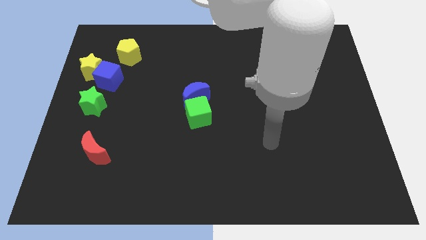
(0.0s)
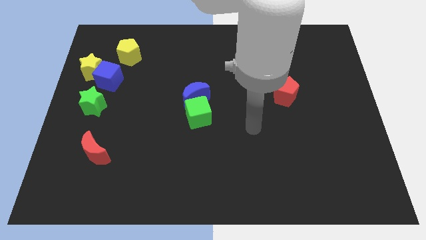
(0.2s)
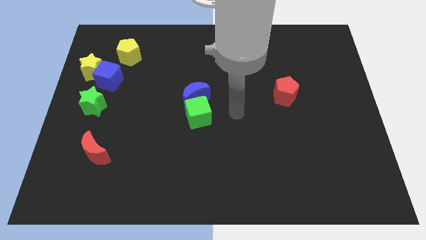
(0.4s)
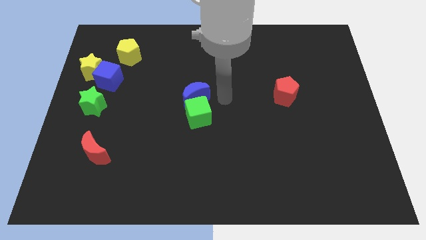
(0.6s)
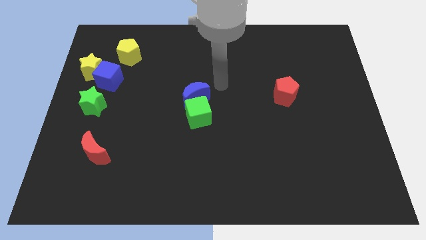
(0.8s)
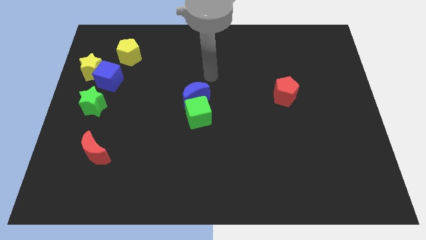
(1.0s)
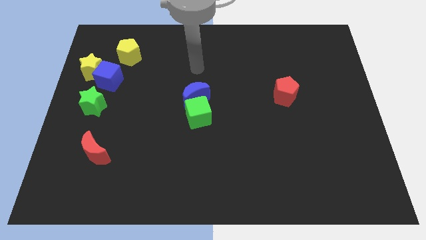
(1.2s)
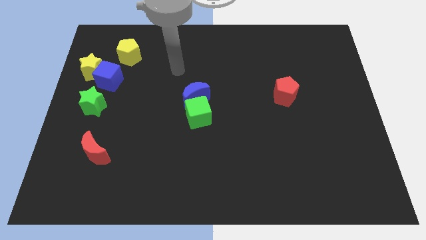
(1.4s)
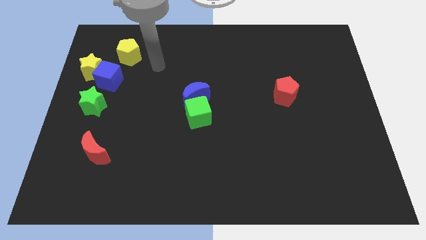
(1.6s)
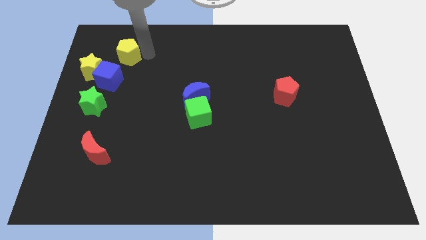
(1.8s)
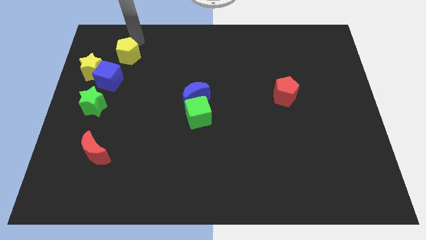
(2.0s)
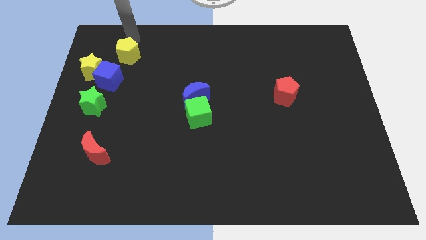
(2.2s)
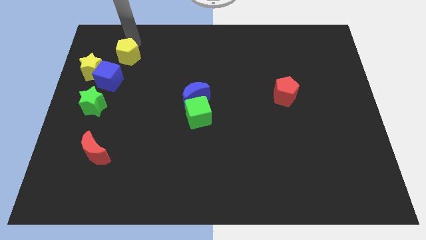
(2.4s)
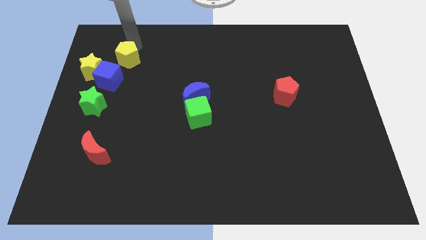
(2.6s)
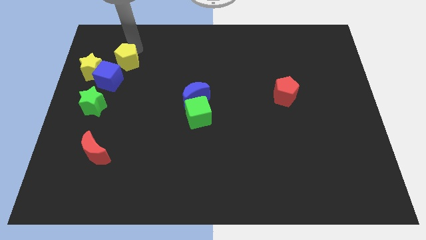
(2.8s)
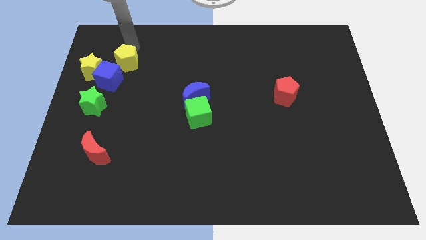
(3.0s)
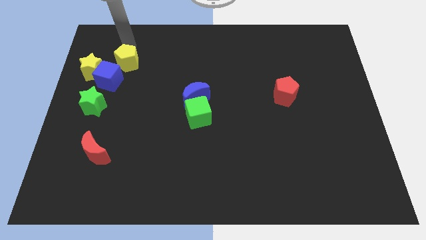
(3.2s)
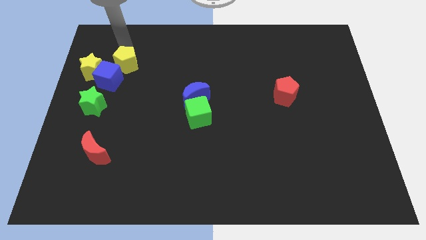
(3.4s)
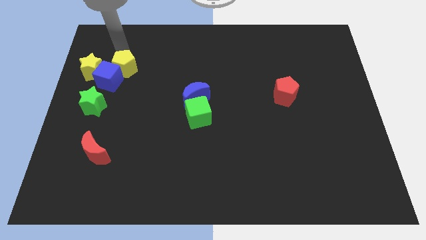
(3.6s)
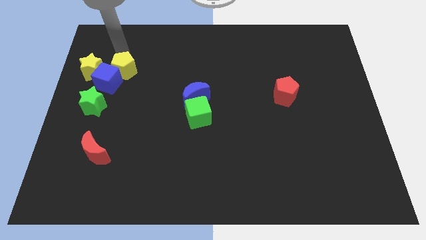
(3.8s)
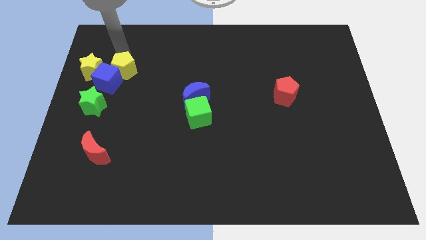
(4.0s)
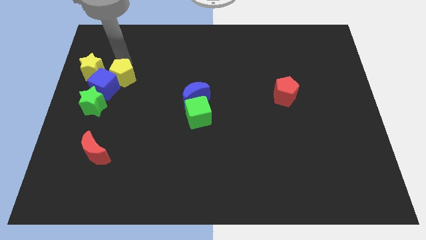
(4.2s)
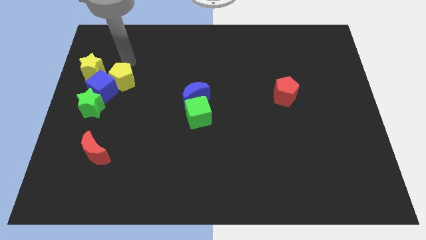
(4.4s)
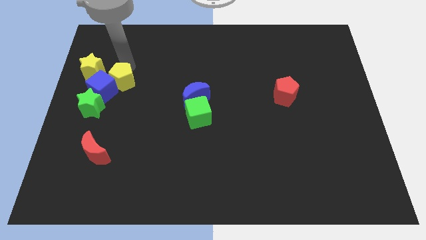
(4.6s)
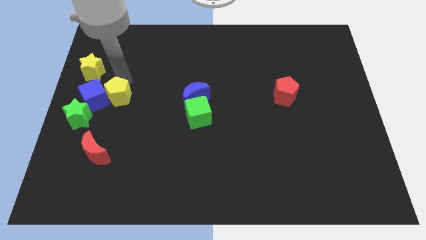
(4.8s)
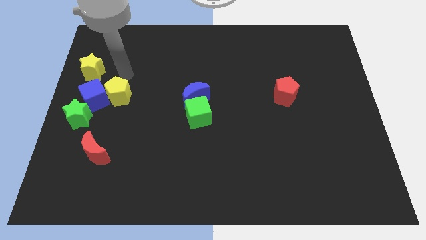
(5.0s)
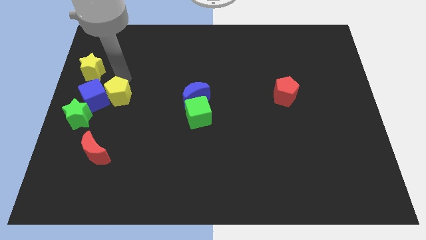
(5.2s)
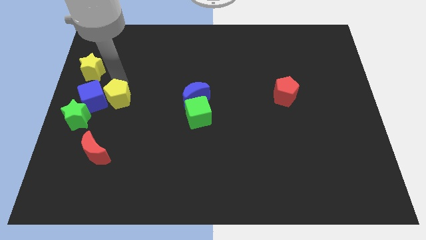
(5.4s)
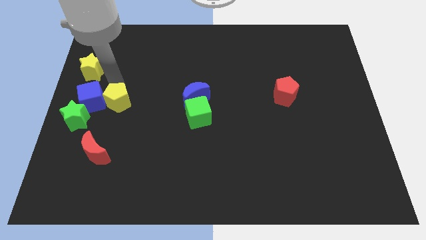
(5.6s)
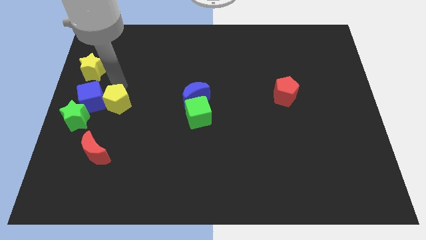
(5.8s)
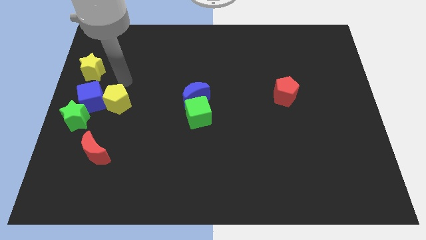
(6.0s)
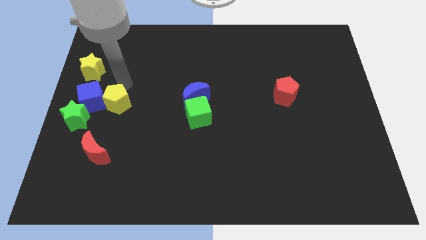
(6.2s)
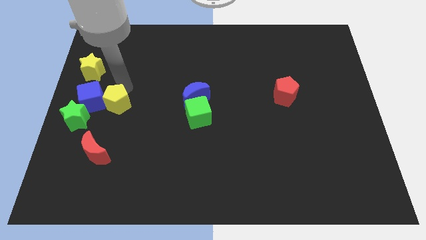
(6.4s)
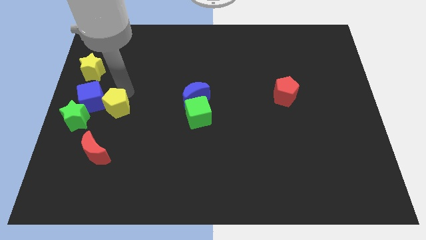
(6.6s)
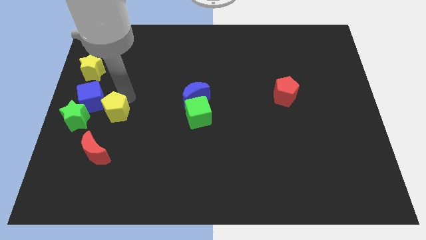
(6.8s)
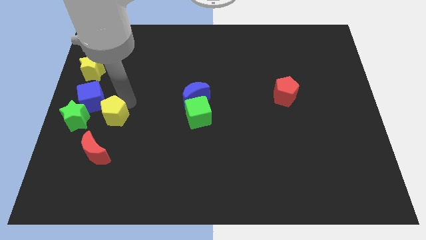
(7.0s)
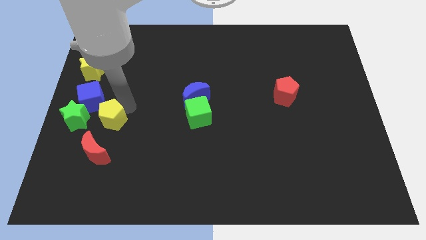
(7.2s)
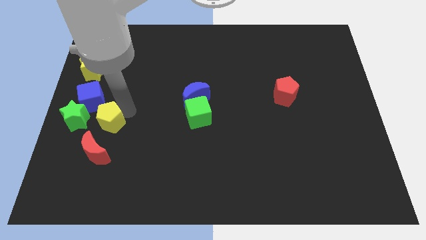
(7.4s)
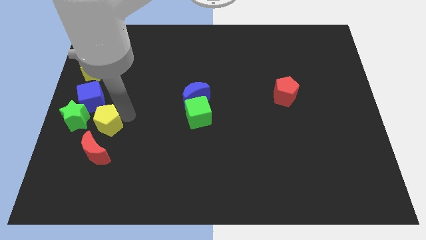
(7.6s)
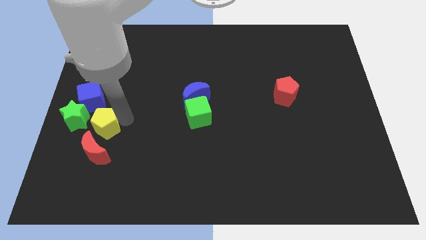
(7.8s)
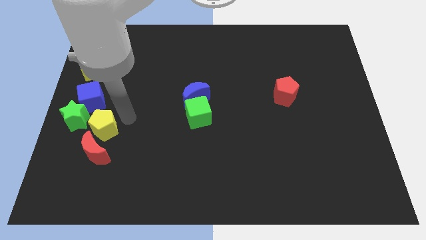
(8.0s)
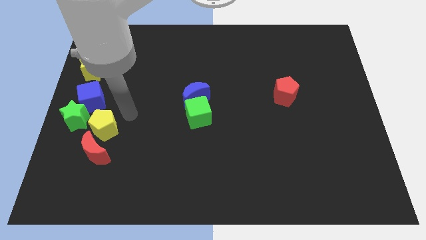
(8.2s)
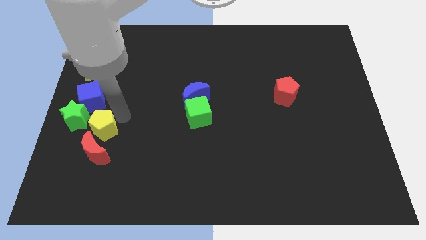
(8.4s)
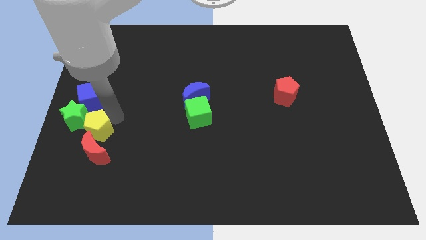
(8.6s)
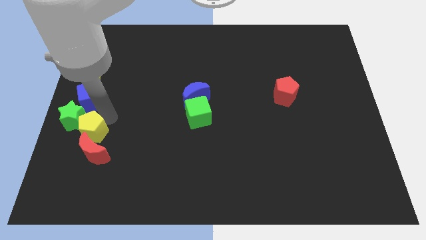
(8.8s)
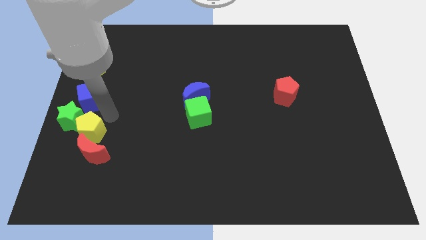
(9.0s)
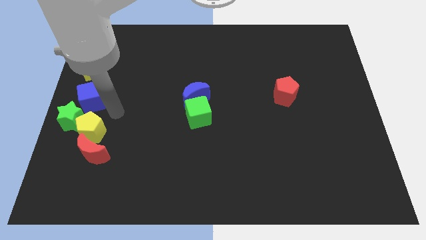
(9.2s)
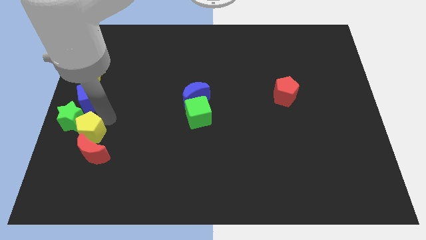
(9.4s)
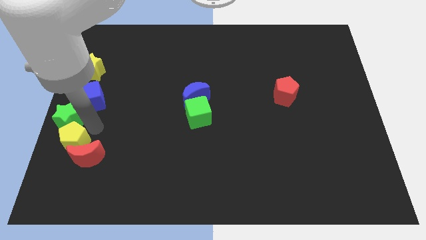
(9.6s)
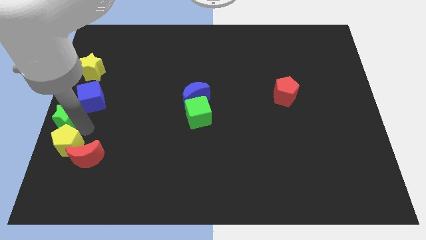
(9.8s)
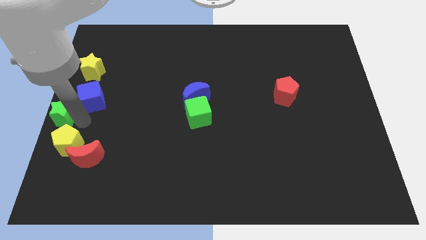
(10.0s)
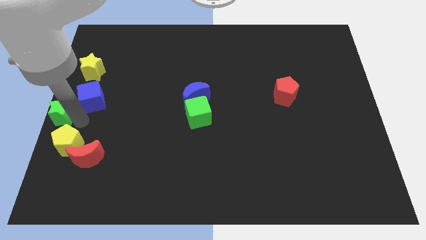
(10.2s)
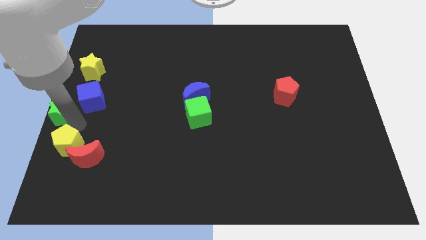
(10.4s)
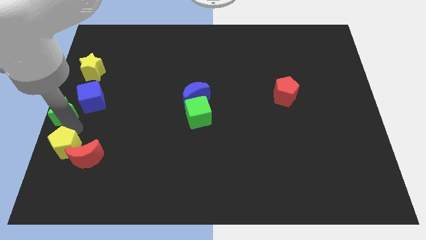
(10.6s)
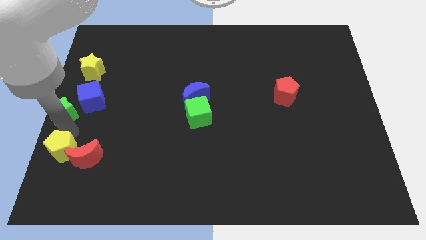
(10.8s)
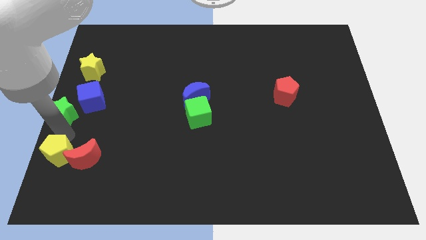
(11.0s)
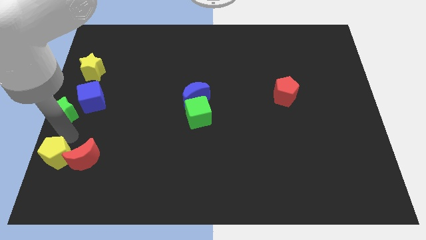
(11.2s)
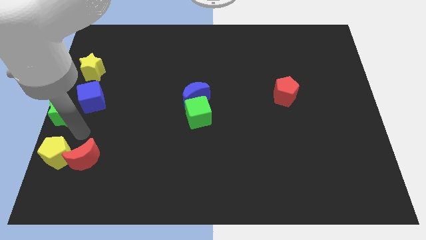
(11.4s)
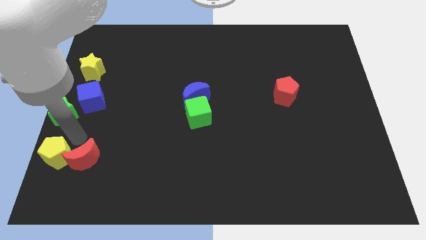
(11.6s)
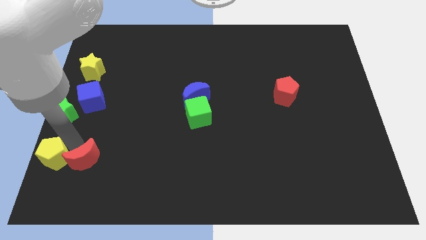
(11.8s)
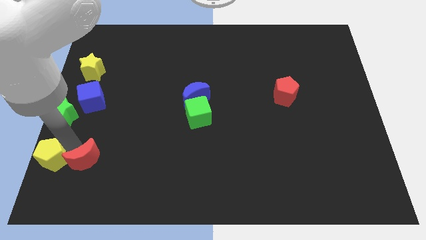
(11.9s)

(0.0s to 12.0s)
put the yellow pentagon to the bottom left corner
